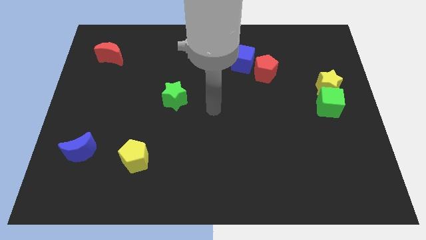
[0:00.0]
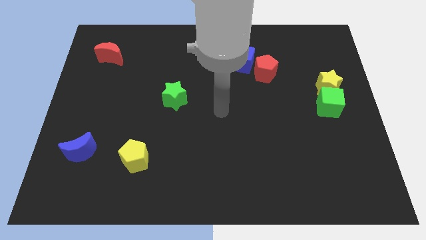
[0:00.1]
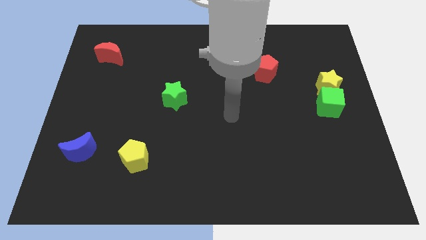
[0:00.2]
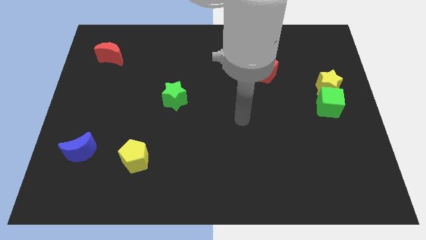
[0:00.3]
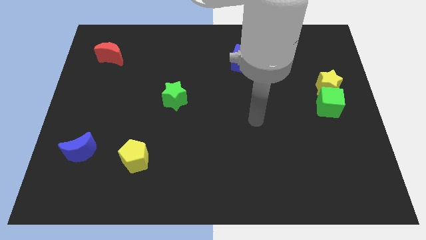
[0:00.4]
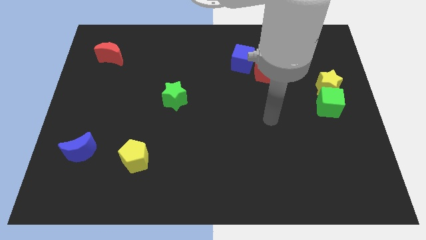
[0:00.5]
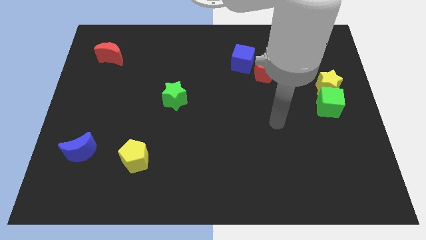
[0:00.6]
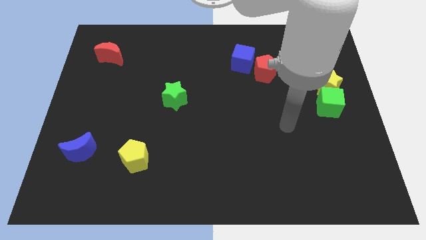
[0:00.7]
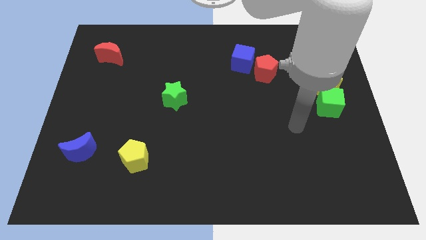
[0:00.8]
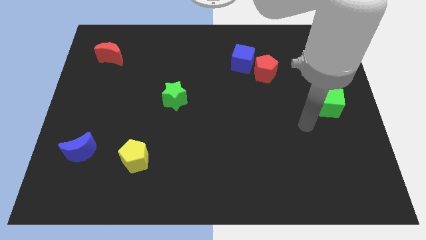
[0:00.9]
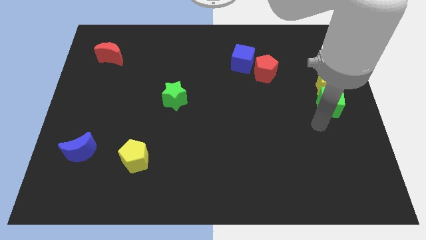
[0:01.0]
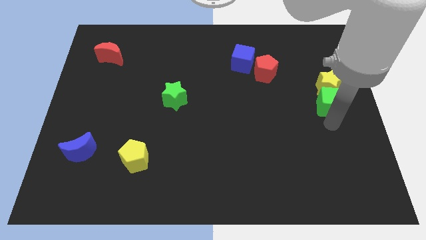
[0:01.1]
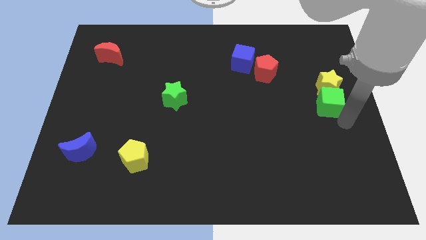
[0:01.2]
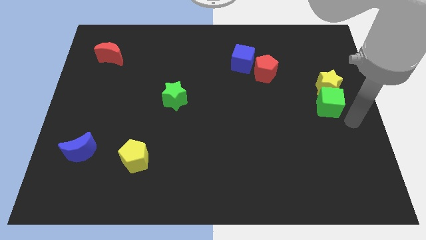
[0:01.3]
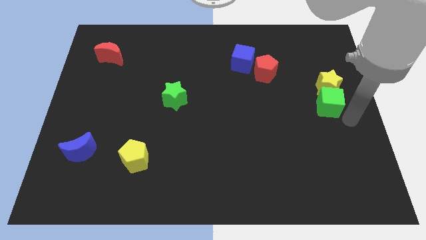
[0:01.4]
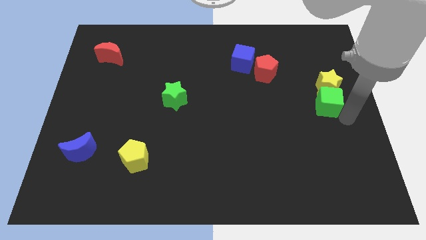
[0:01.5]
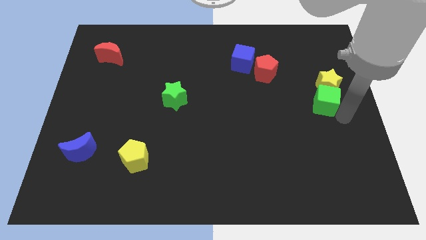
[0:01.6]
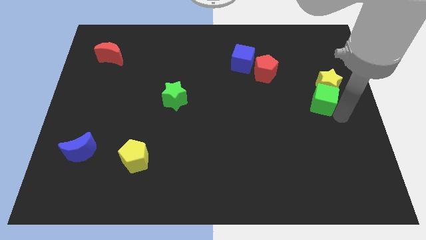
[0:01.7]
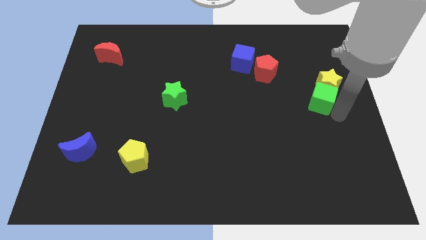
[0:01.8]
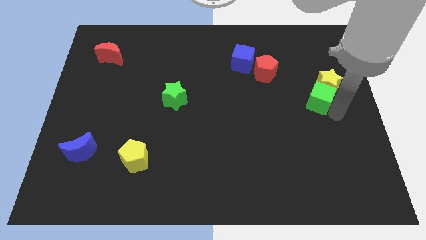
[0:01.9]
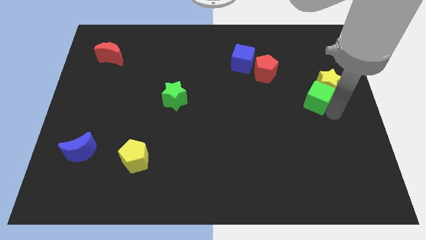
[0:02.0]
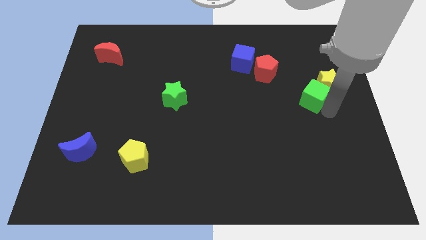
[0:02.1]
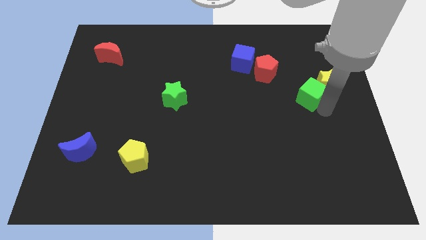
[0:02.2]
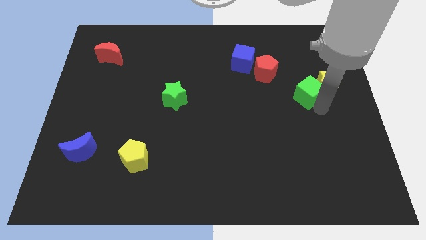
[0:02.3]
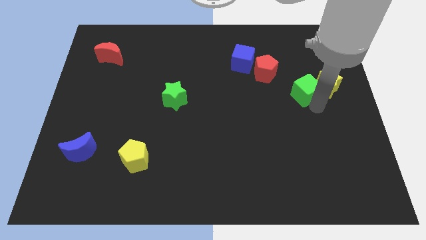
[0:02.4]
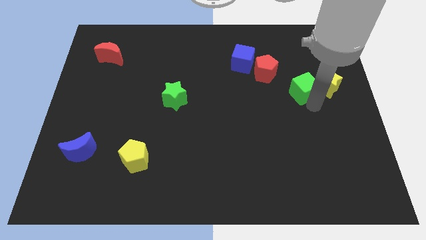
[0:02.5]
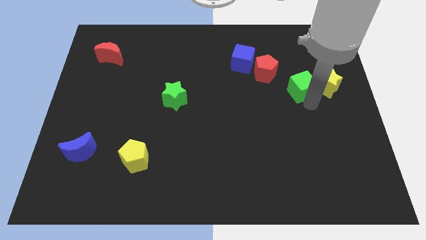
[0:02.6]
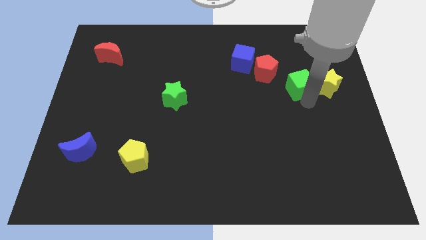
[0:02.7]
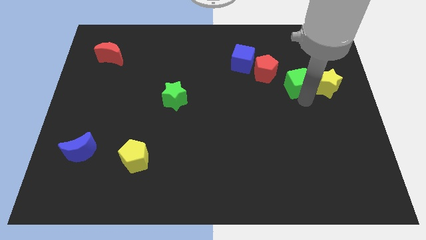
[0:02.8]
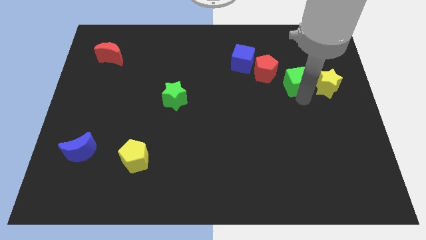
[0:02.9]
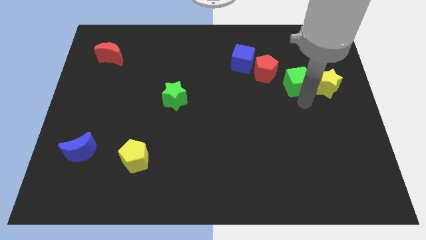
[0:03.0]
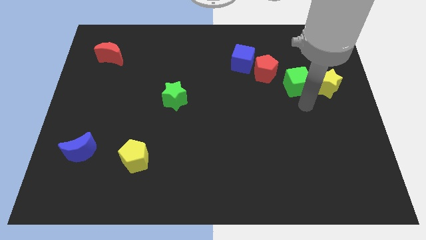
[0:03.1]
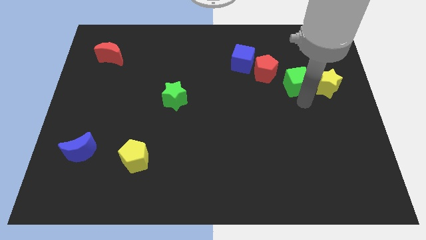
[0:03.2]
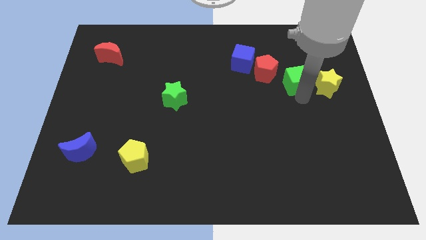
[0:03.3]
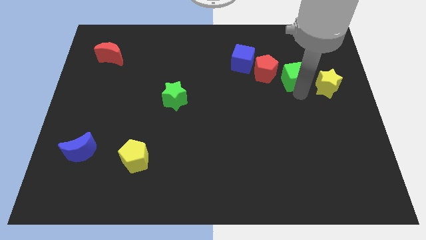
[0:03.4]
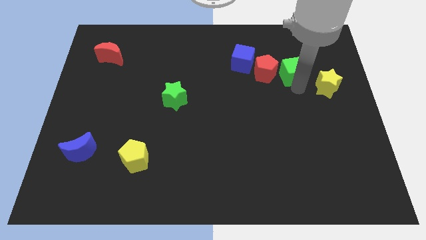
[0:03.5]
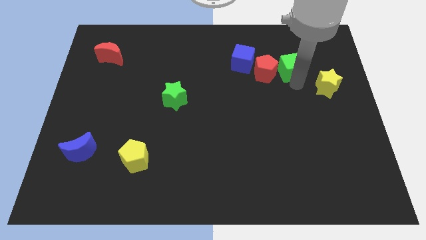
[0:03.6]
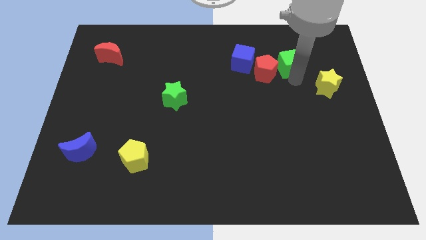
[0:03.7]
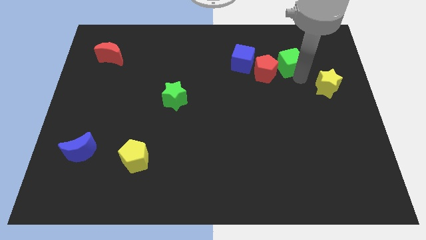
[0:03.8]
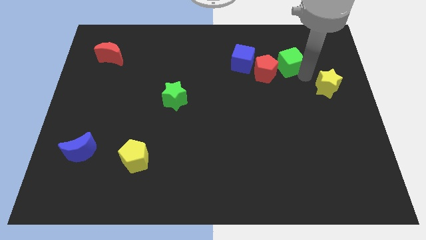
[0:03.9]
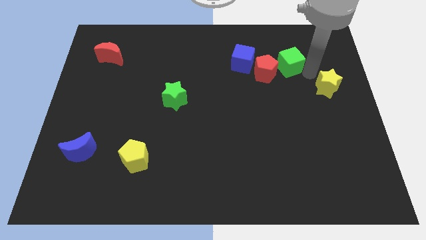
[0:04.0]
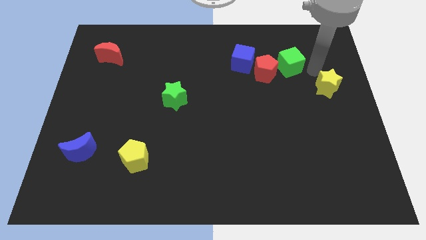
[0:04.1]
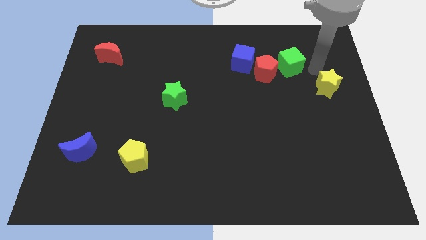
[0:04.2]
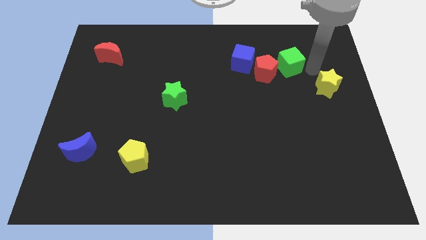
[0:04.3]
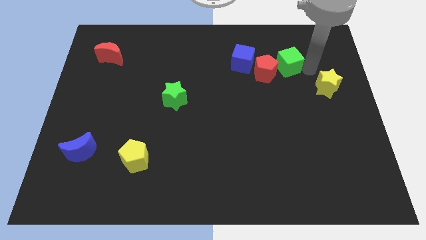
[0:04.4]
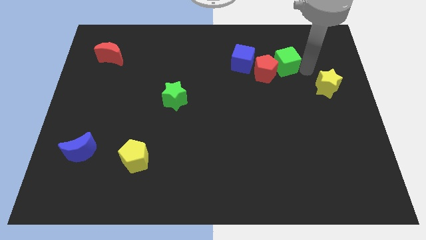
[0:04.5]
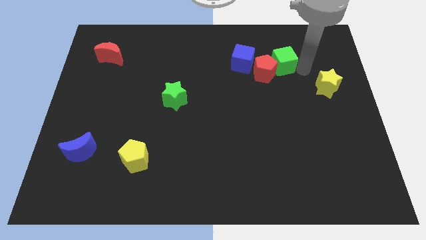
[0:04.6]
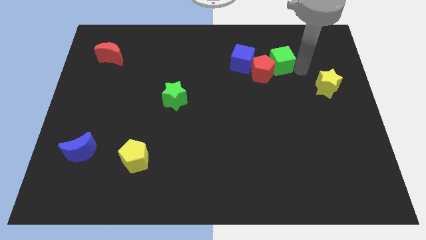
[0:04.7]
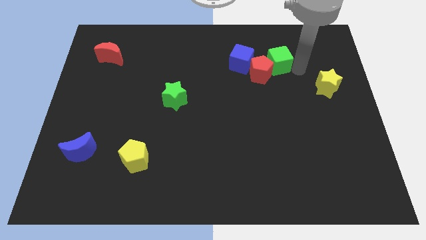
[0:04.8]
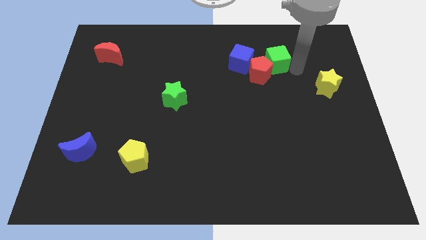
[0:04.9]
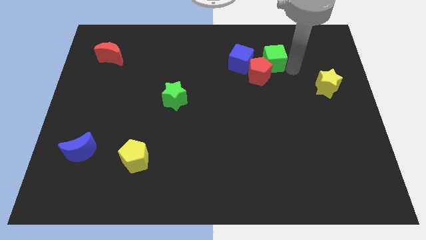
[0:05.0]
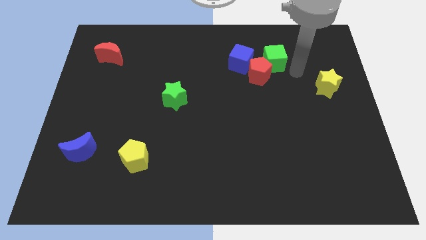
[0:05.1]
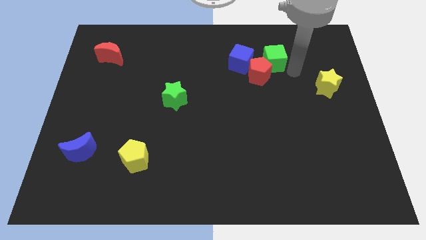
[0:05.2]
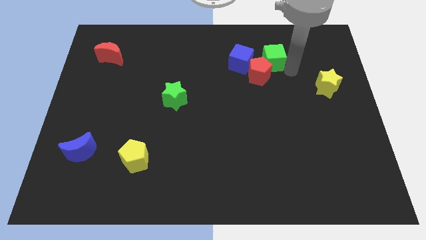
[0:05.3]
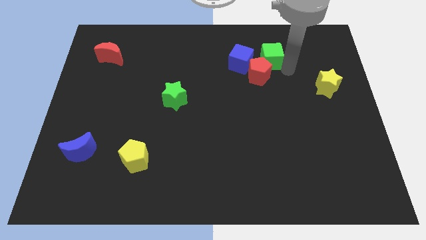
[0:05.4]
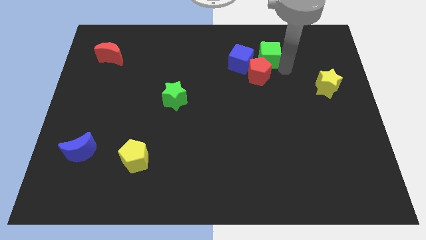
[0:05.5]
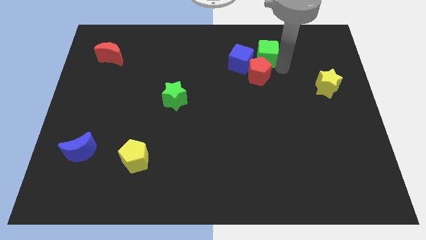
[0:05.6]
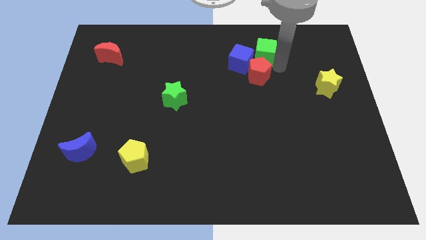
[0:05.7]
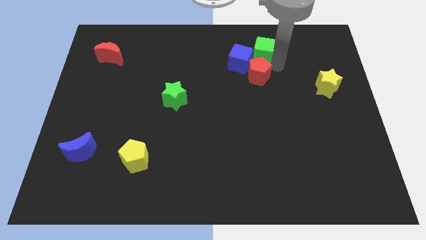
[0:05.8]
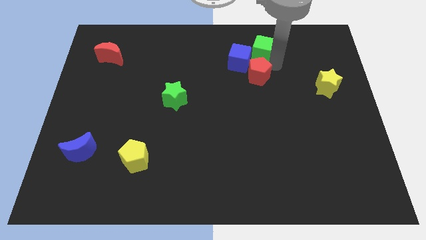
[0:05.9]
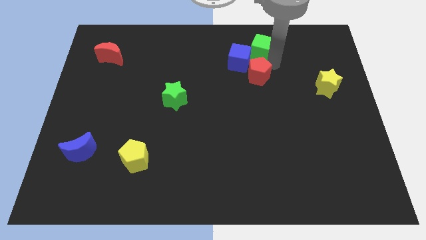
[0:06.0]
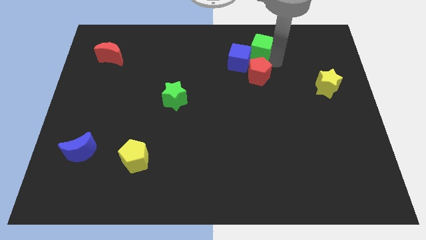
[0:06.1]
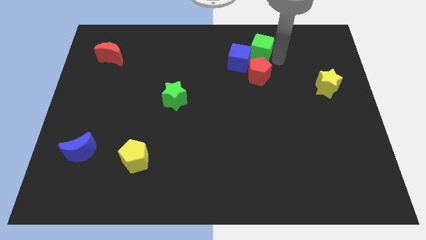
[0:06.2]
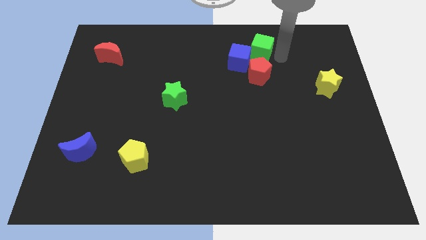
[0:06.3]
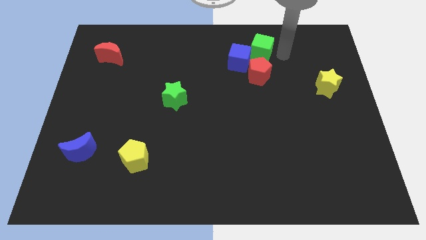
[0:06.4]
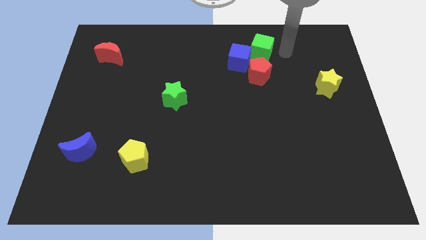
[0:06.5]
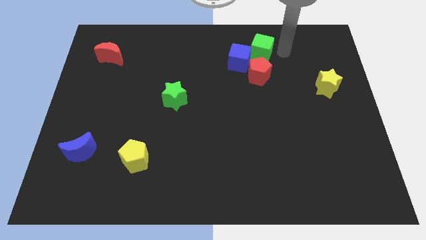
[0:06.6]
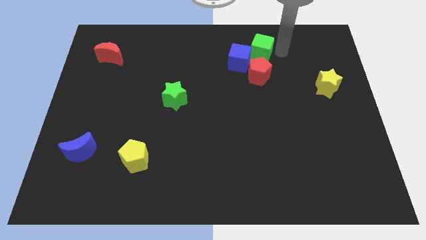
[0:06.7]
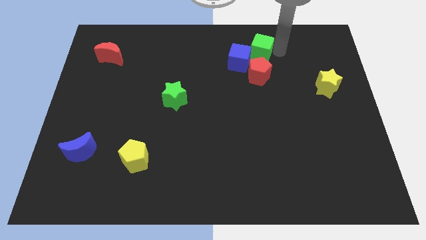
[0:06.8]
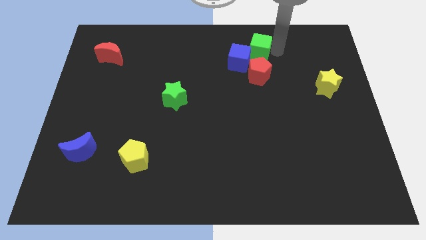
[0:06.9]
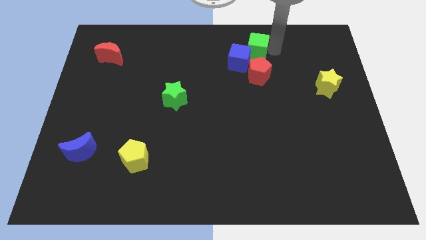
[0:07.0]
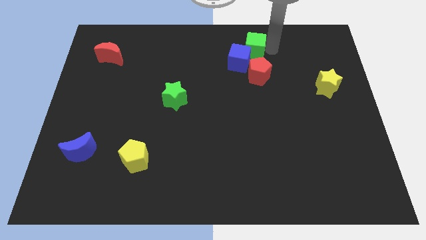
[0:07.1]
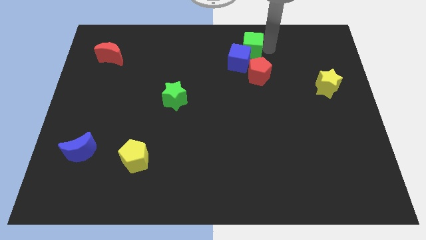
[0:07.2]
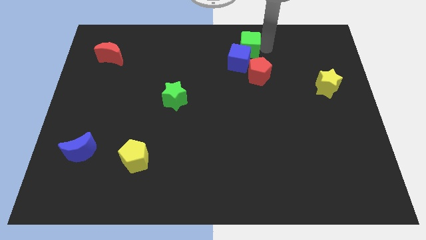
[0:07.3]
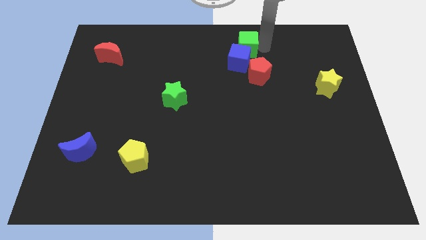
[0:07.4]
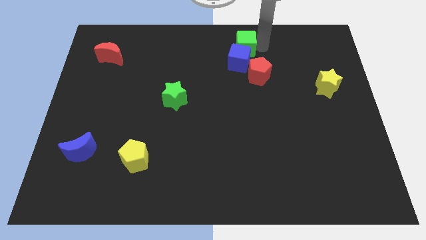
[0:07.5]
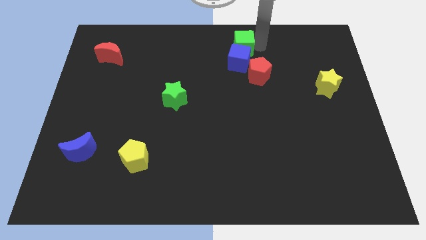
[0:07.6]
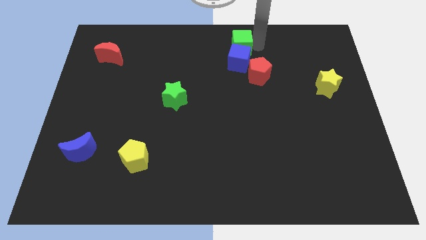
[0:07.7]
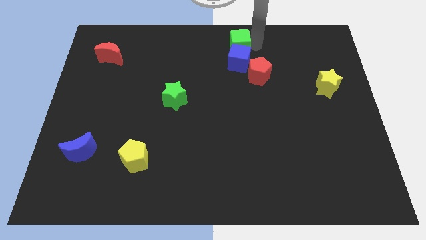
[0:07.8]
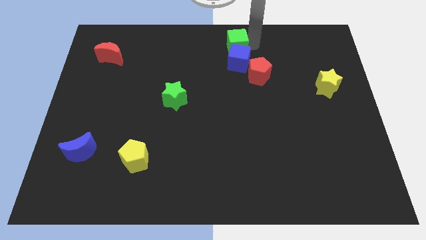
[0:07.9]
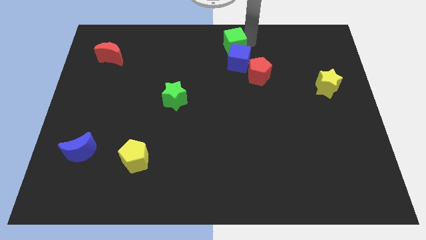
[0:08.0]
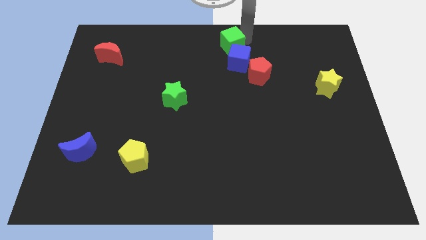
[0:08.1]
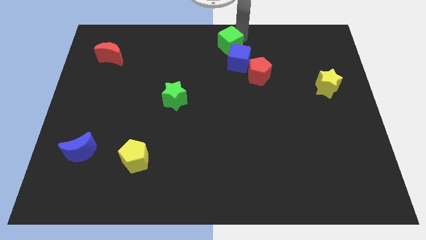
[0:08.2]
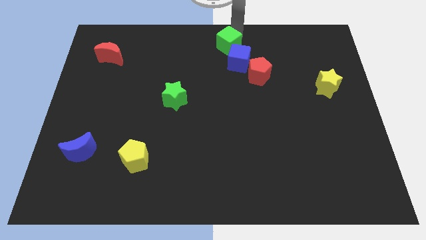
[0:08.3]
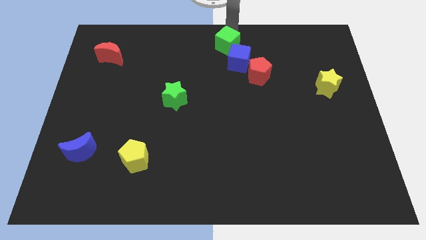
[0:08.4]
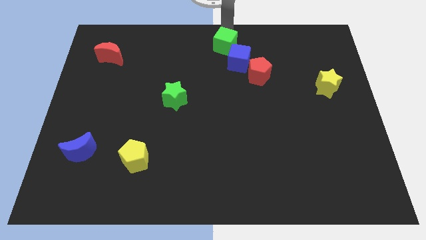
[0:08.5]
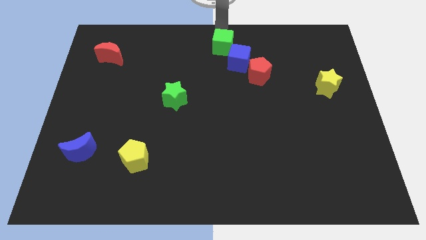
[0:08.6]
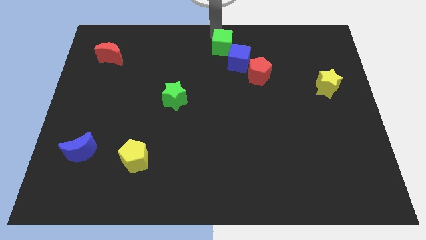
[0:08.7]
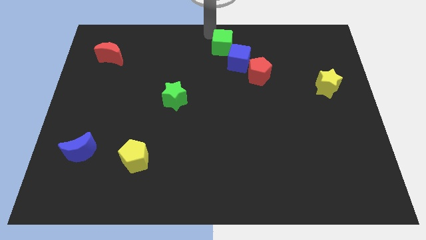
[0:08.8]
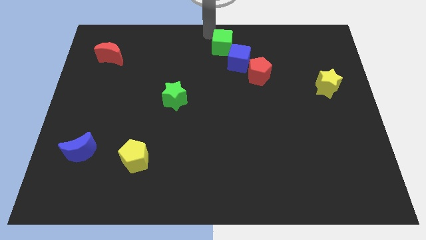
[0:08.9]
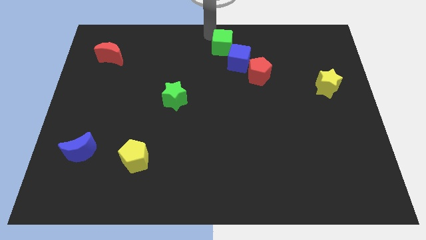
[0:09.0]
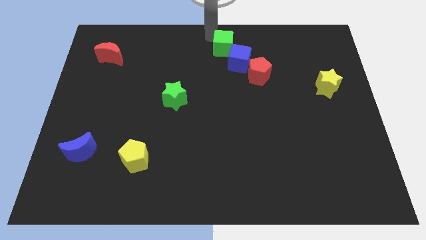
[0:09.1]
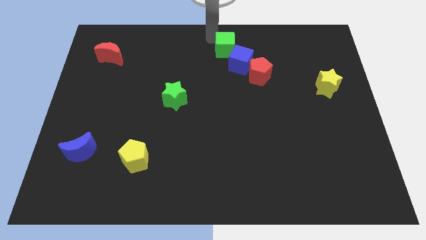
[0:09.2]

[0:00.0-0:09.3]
slide the green cube to the top left side of the red pentagon
